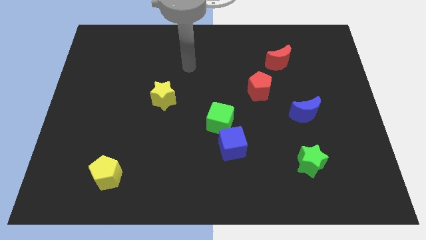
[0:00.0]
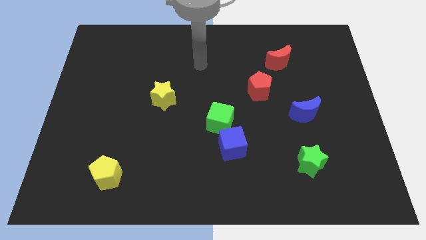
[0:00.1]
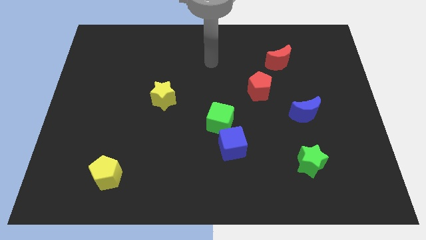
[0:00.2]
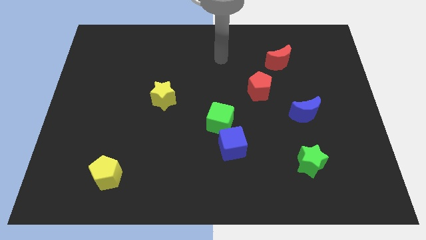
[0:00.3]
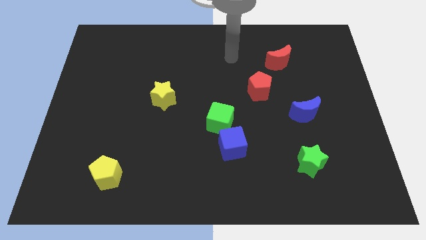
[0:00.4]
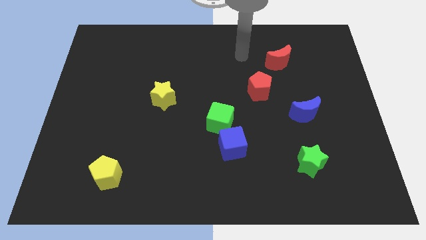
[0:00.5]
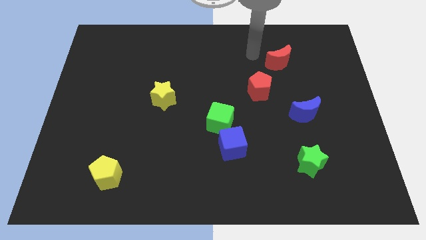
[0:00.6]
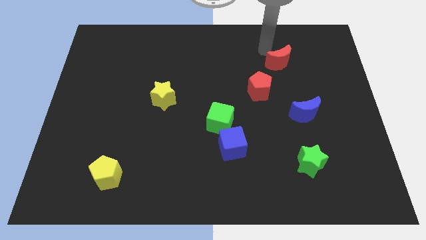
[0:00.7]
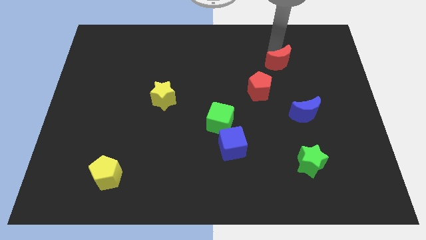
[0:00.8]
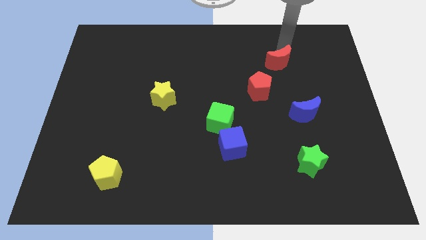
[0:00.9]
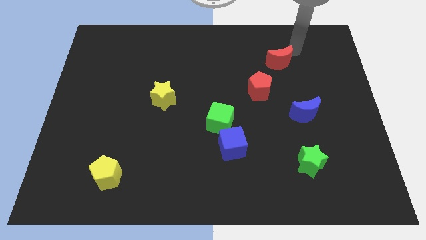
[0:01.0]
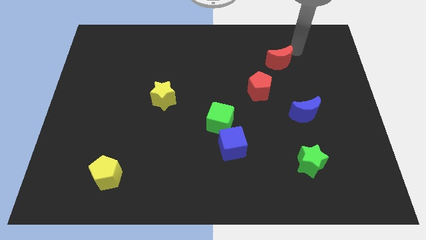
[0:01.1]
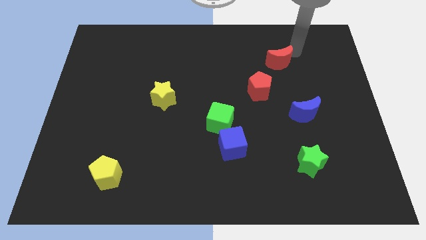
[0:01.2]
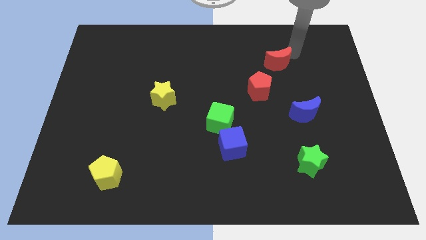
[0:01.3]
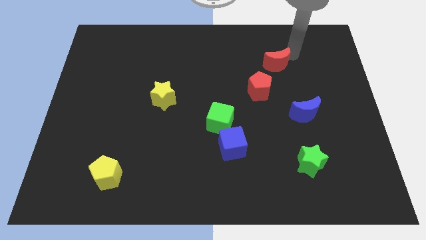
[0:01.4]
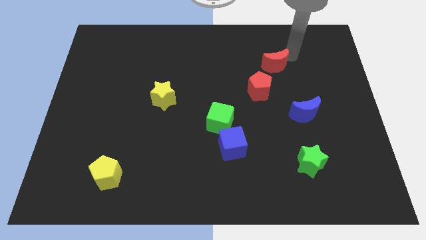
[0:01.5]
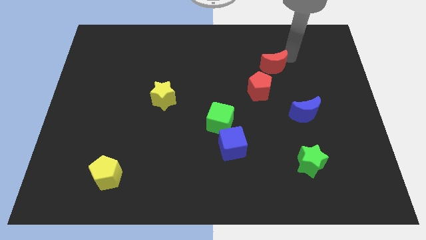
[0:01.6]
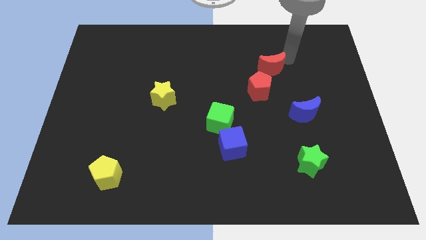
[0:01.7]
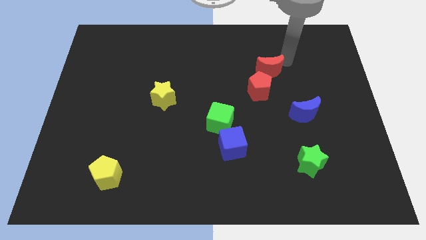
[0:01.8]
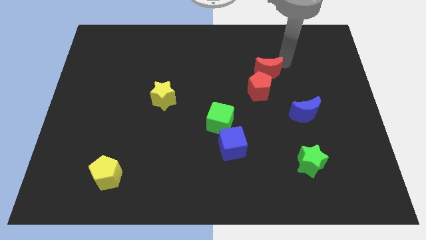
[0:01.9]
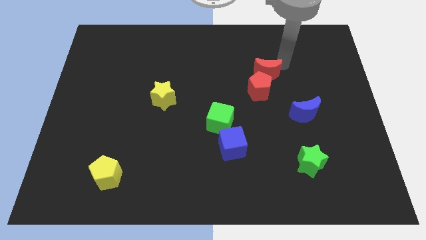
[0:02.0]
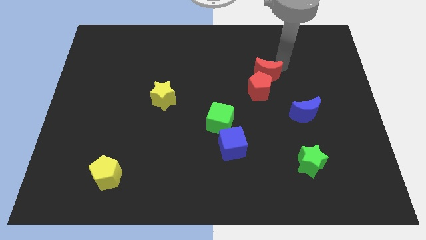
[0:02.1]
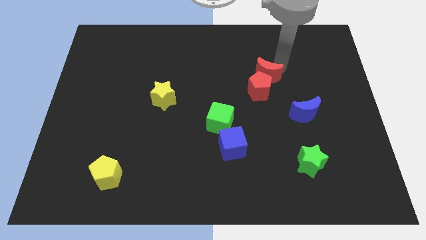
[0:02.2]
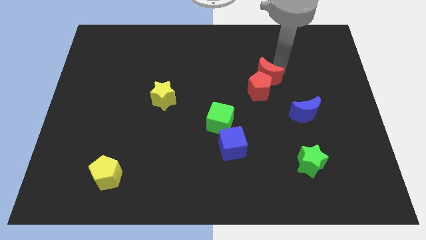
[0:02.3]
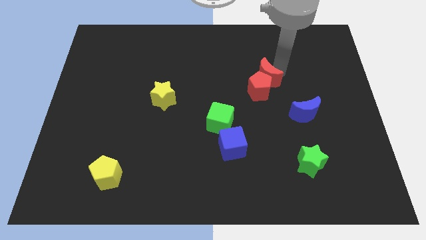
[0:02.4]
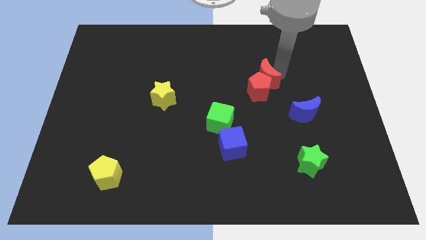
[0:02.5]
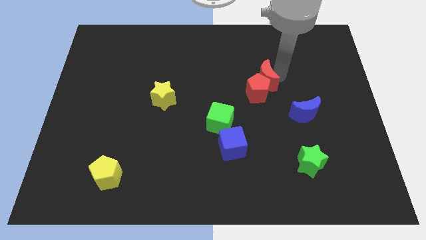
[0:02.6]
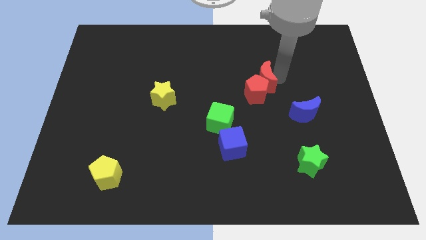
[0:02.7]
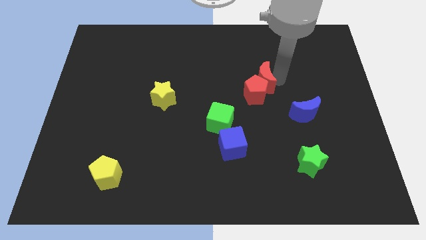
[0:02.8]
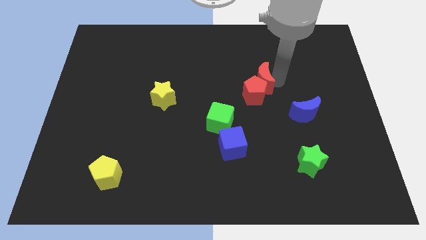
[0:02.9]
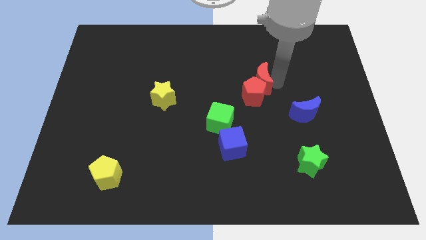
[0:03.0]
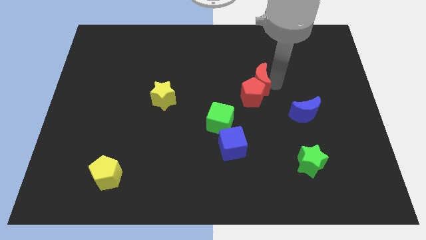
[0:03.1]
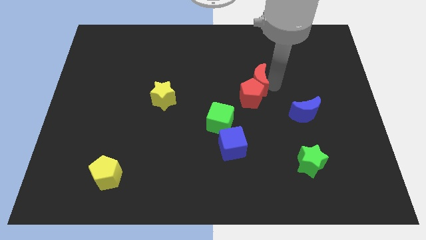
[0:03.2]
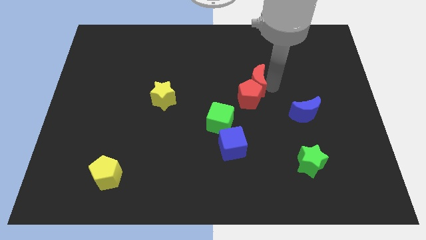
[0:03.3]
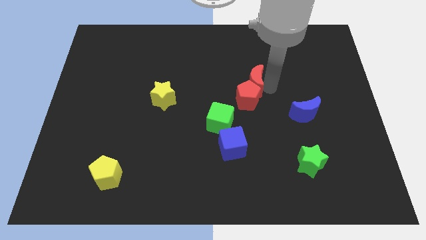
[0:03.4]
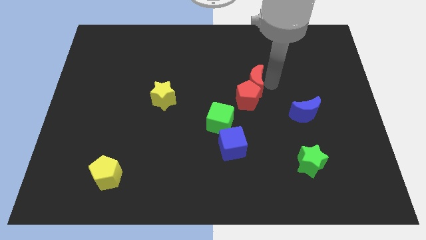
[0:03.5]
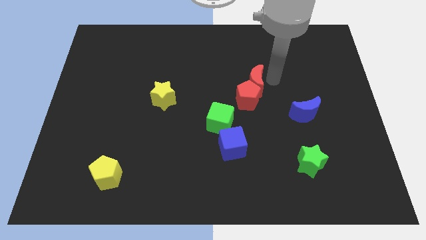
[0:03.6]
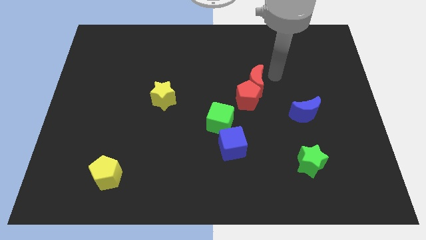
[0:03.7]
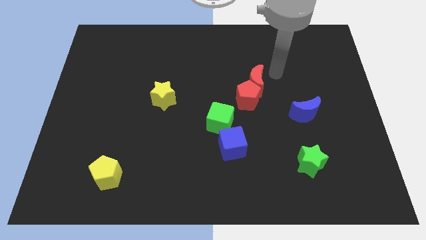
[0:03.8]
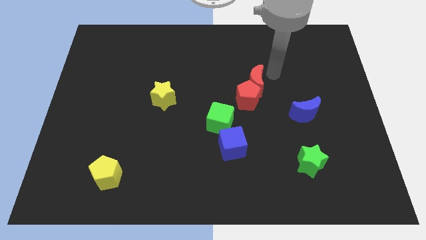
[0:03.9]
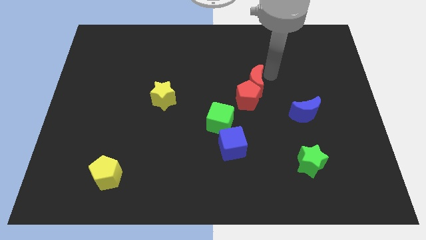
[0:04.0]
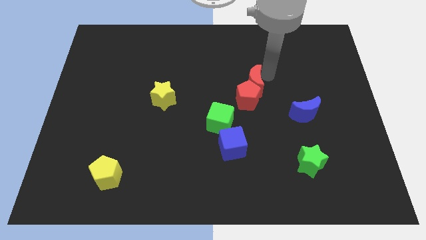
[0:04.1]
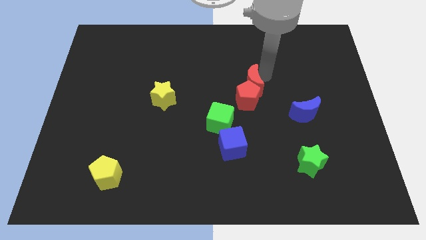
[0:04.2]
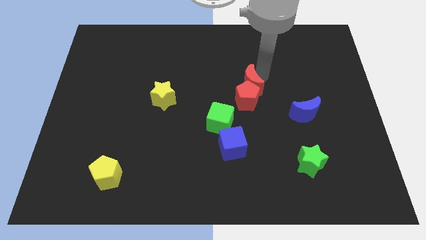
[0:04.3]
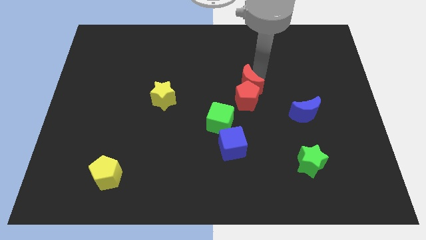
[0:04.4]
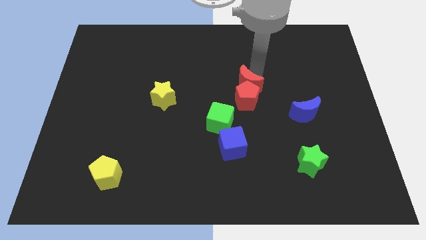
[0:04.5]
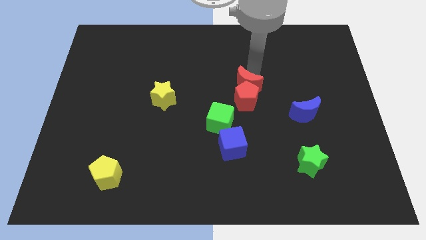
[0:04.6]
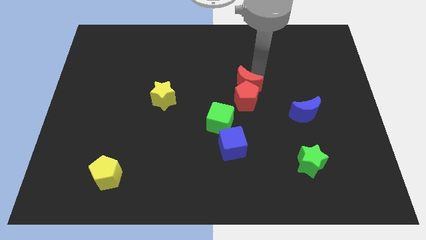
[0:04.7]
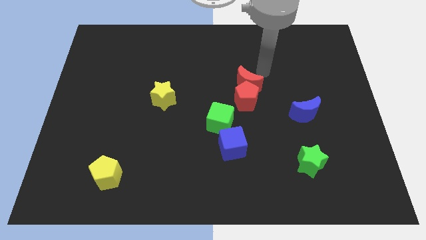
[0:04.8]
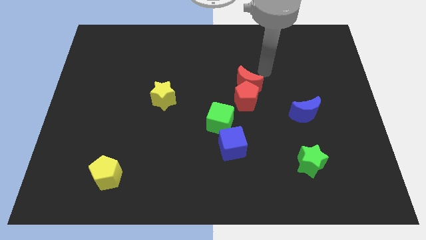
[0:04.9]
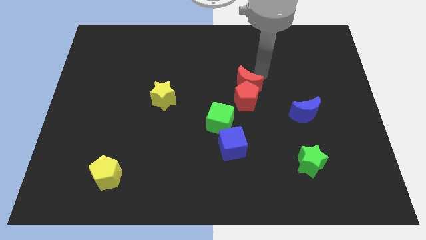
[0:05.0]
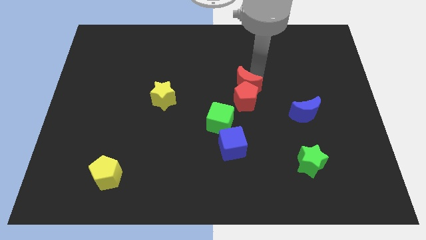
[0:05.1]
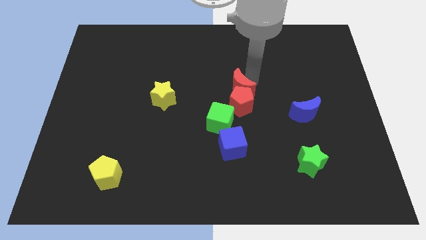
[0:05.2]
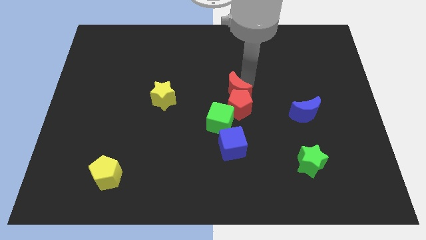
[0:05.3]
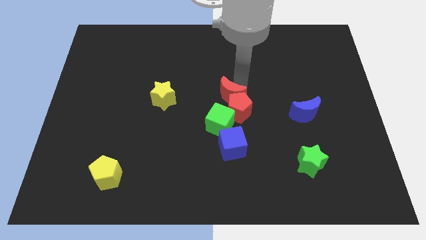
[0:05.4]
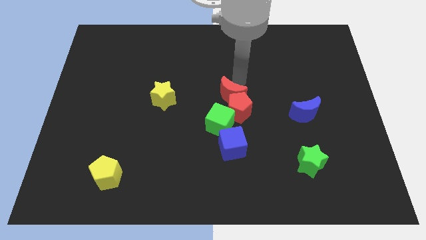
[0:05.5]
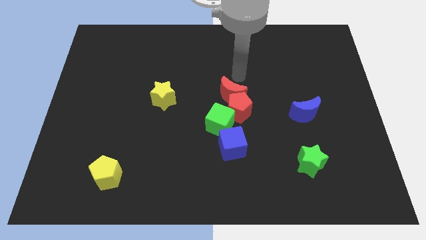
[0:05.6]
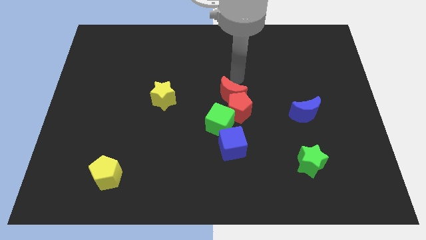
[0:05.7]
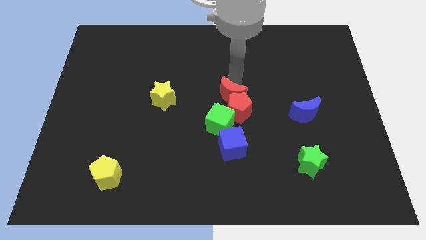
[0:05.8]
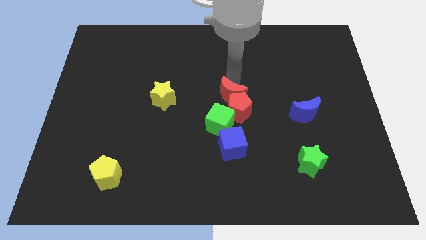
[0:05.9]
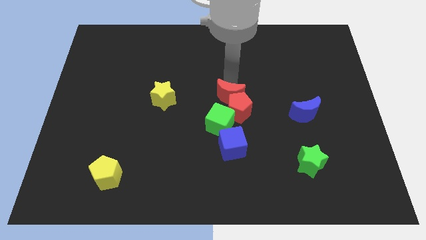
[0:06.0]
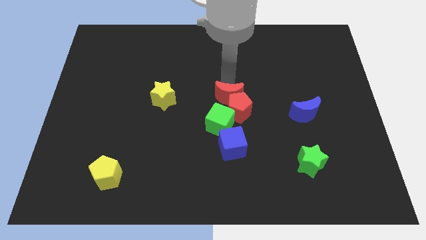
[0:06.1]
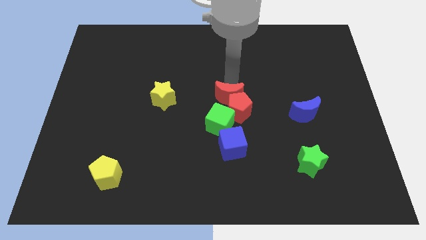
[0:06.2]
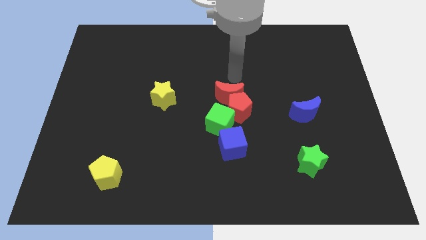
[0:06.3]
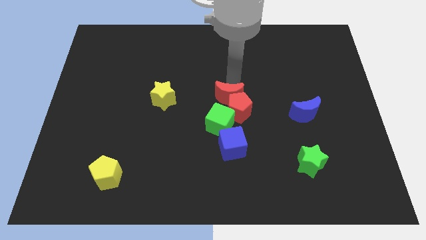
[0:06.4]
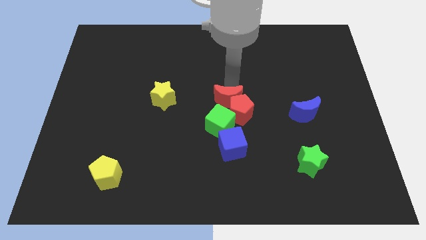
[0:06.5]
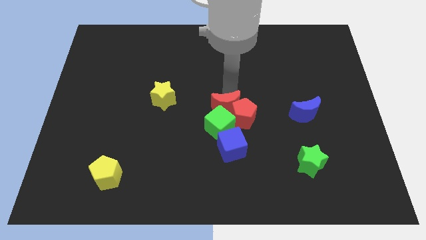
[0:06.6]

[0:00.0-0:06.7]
move the red moon to the green cube

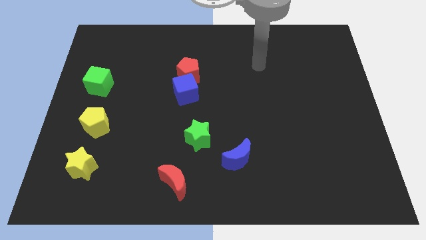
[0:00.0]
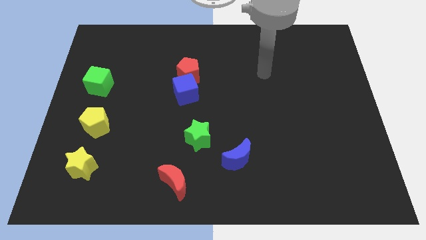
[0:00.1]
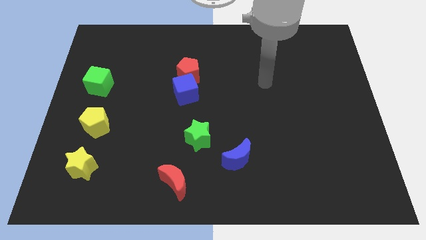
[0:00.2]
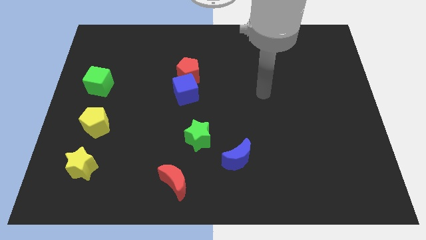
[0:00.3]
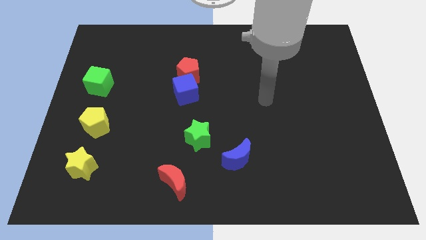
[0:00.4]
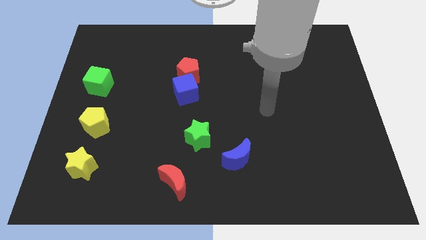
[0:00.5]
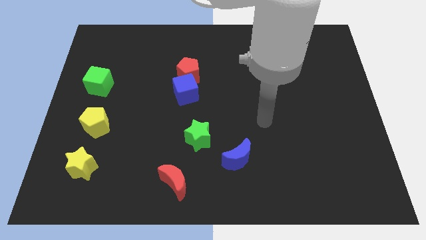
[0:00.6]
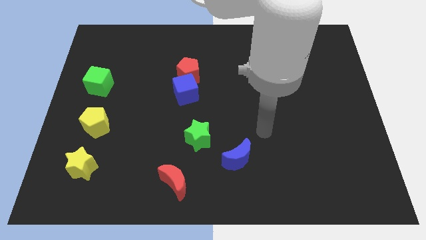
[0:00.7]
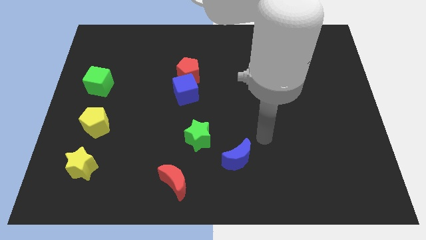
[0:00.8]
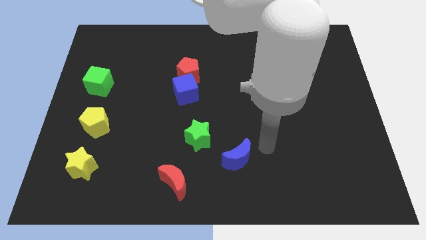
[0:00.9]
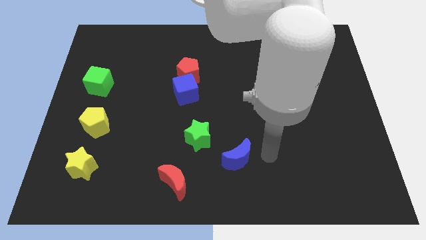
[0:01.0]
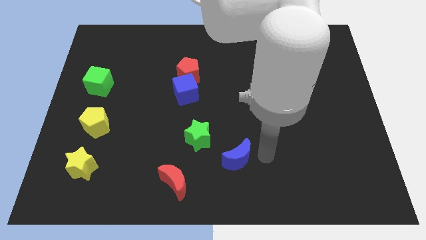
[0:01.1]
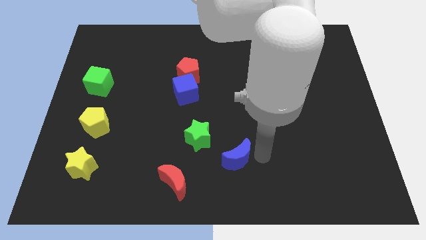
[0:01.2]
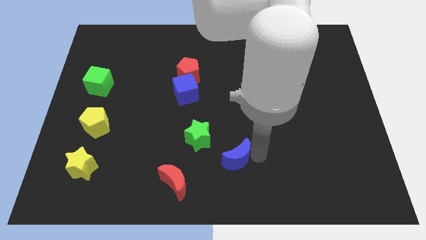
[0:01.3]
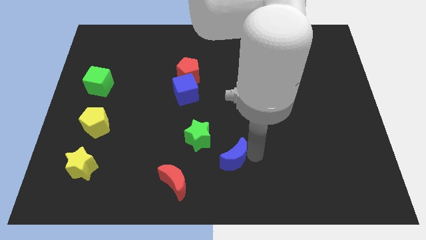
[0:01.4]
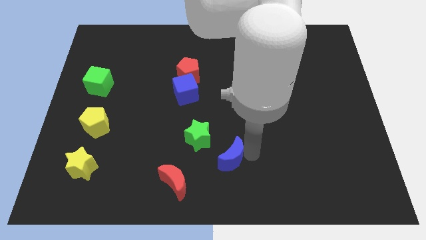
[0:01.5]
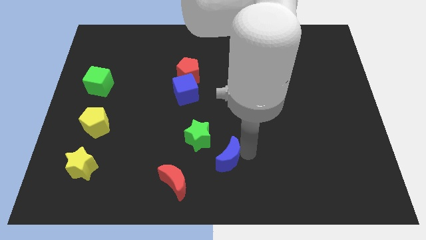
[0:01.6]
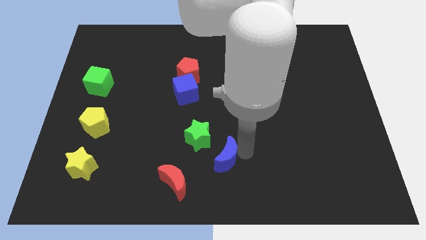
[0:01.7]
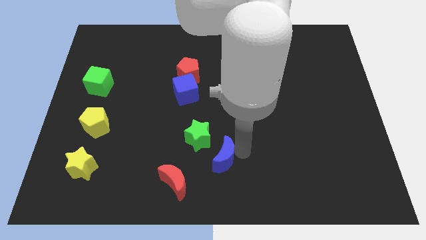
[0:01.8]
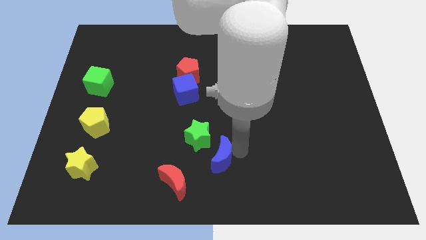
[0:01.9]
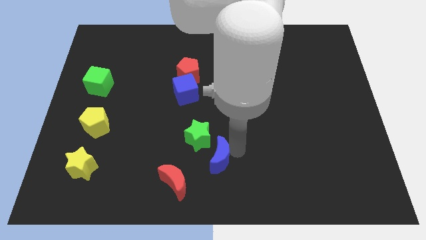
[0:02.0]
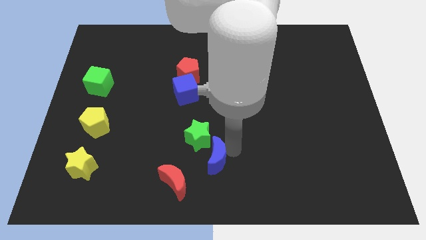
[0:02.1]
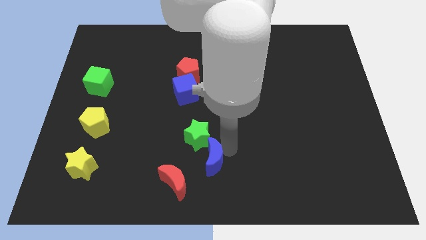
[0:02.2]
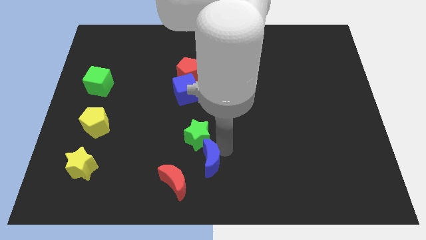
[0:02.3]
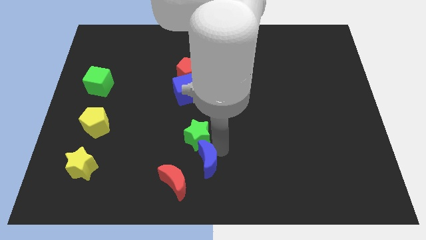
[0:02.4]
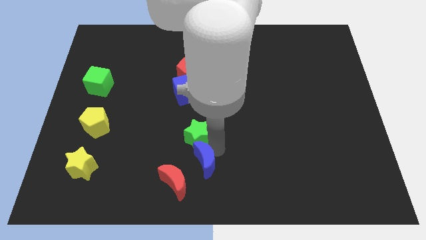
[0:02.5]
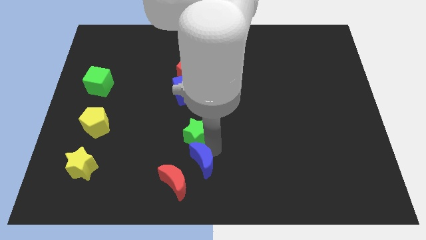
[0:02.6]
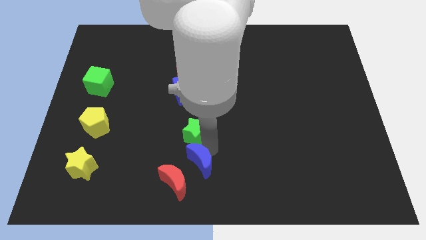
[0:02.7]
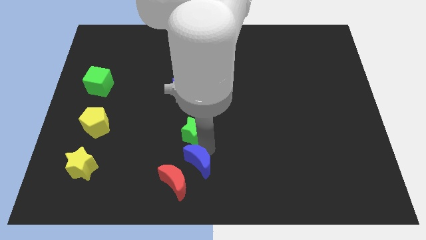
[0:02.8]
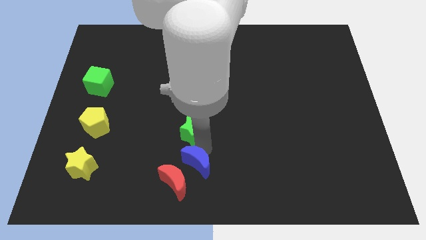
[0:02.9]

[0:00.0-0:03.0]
move the blue moon next to the red moon
